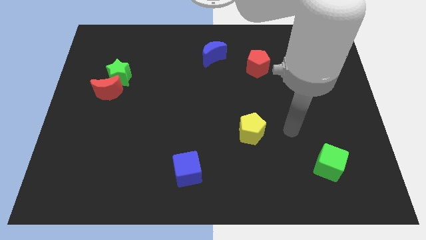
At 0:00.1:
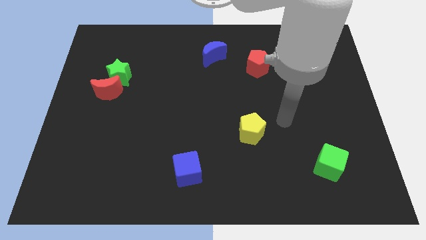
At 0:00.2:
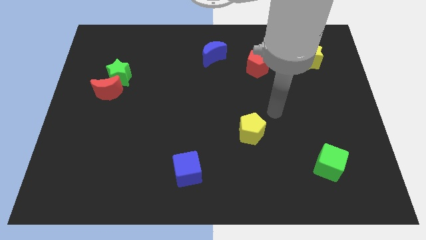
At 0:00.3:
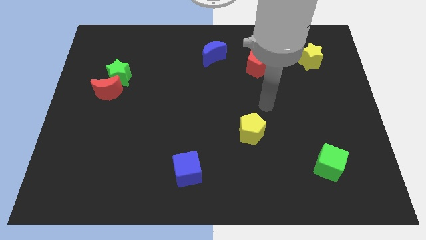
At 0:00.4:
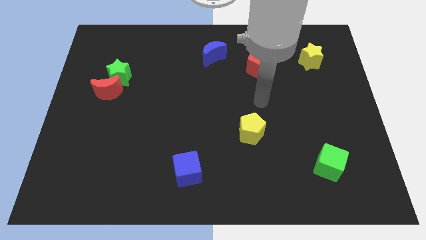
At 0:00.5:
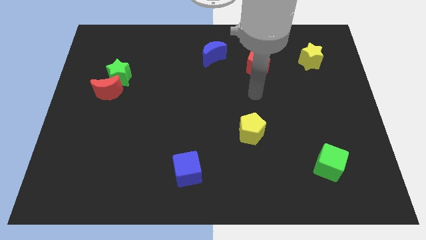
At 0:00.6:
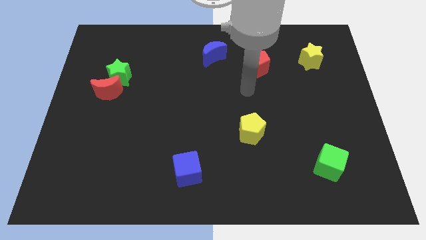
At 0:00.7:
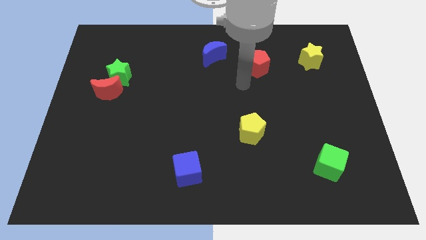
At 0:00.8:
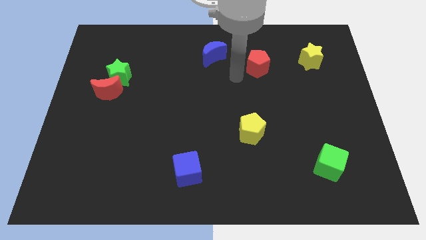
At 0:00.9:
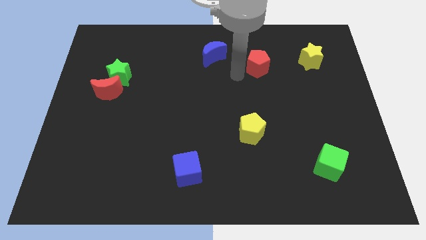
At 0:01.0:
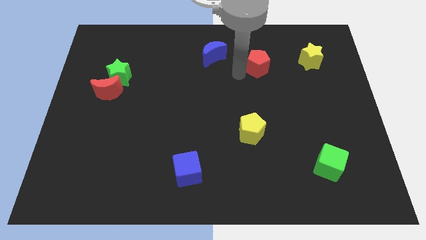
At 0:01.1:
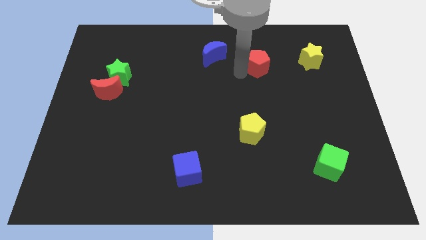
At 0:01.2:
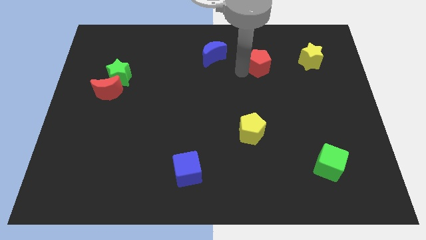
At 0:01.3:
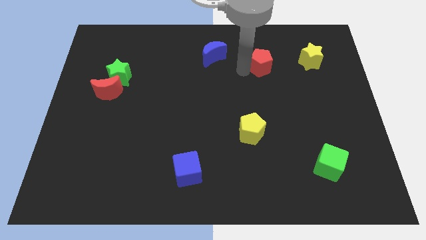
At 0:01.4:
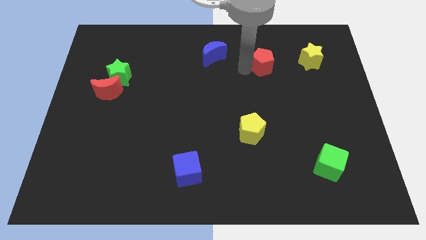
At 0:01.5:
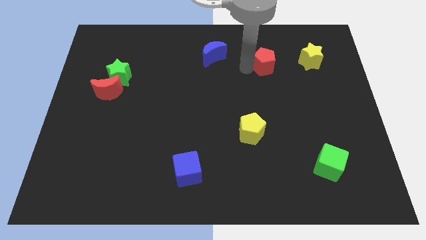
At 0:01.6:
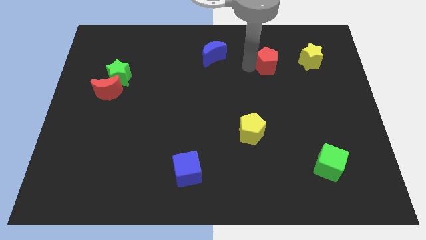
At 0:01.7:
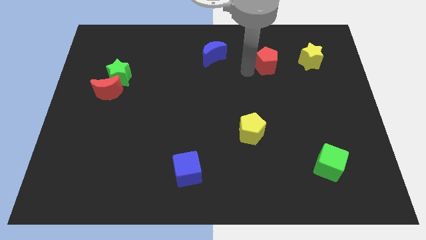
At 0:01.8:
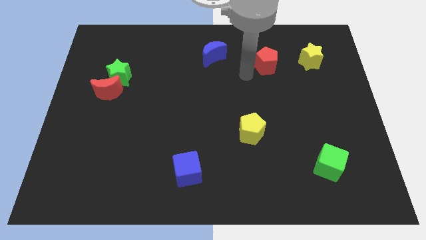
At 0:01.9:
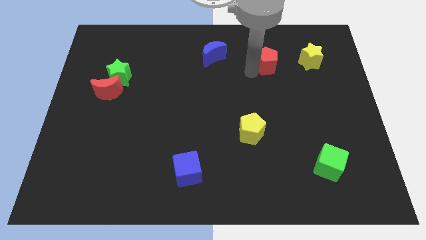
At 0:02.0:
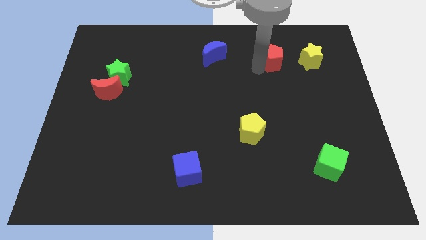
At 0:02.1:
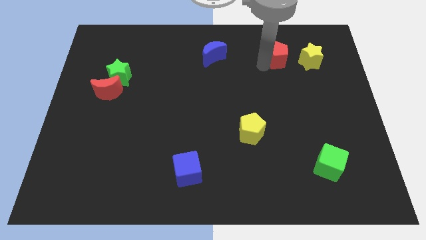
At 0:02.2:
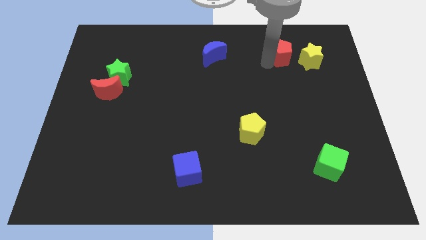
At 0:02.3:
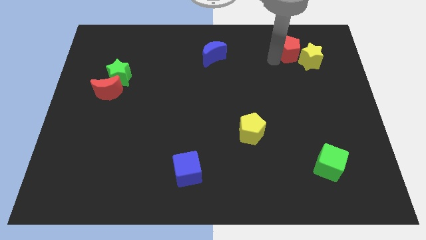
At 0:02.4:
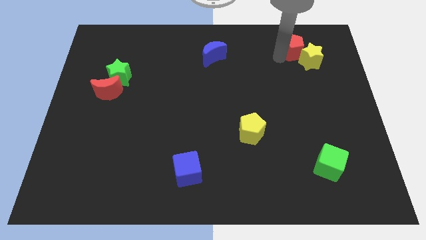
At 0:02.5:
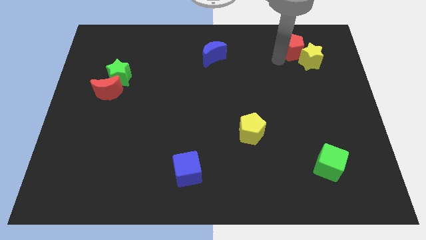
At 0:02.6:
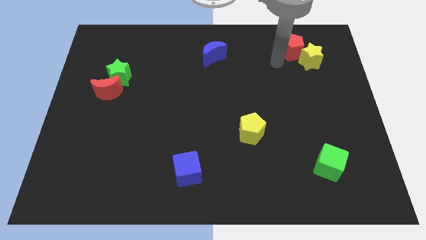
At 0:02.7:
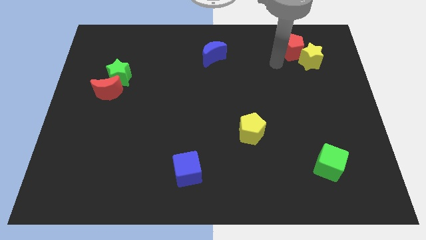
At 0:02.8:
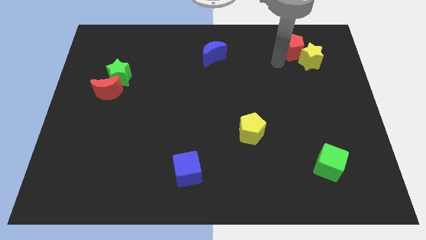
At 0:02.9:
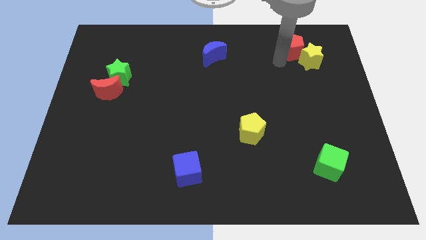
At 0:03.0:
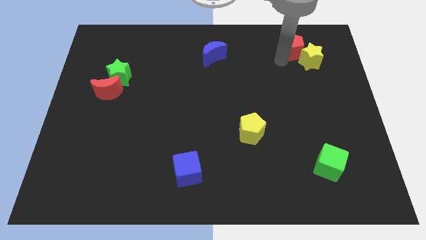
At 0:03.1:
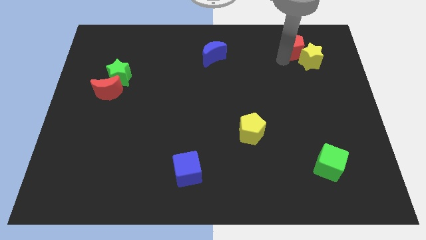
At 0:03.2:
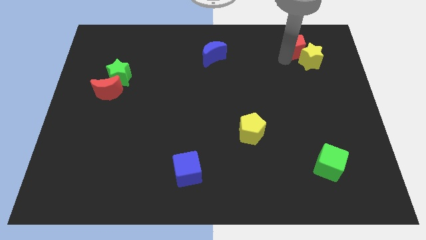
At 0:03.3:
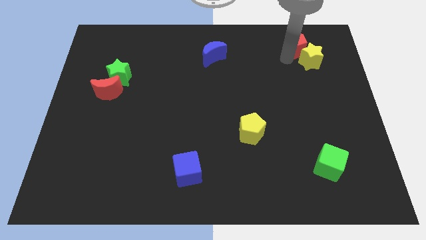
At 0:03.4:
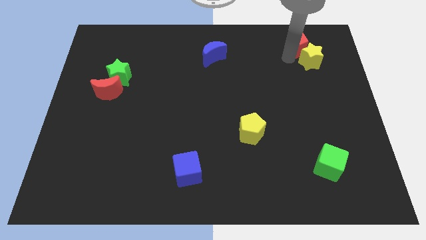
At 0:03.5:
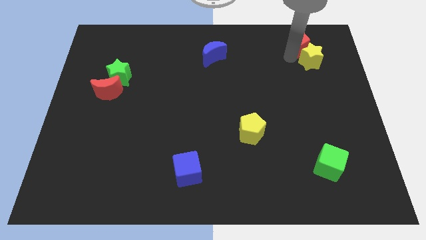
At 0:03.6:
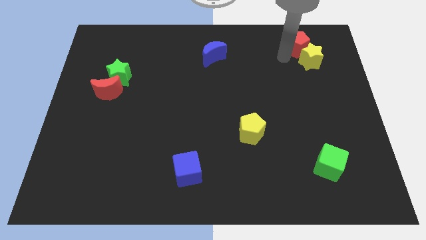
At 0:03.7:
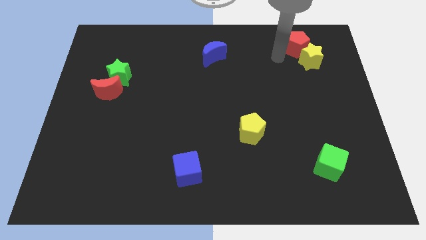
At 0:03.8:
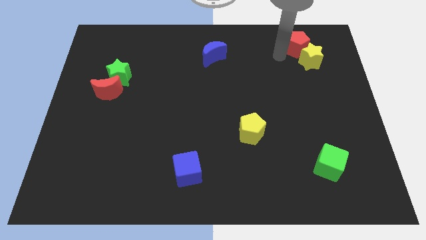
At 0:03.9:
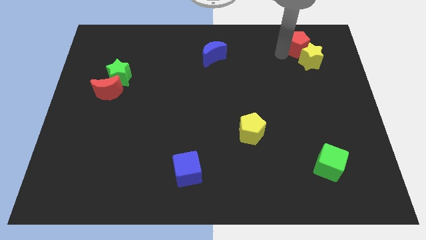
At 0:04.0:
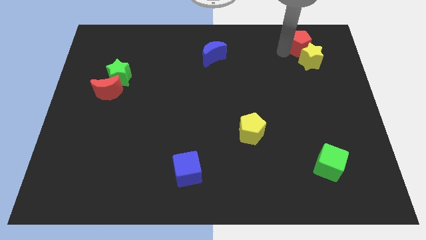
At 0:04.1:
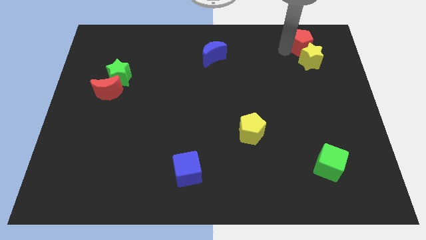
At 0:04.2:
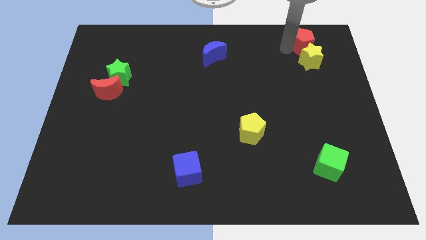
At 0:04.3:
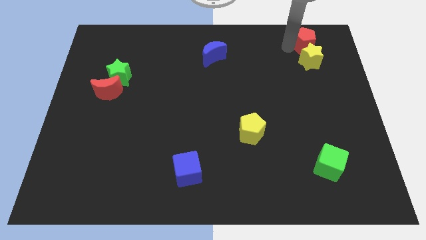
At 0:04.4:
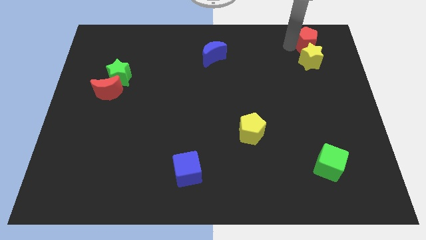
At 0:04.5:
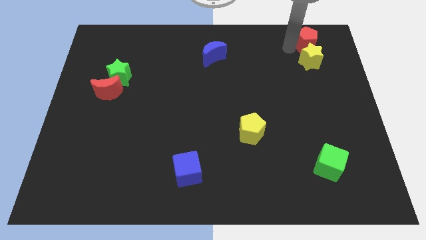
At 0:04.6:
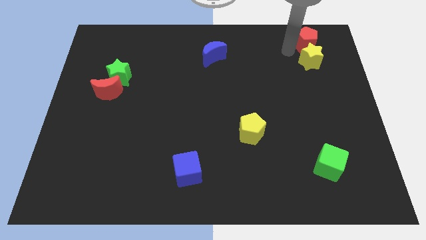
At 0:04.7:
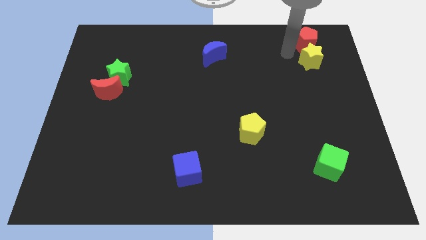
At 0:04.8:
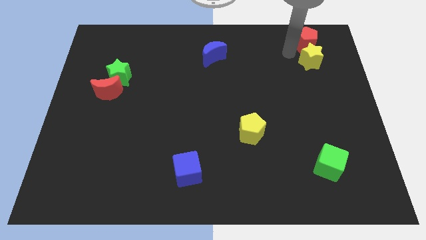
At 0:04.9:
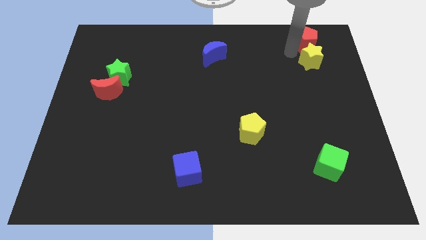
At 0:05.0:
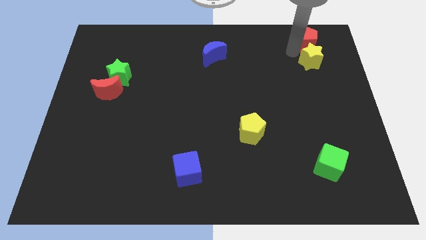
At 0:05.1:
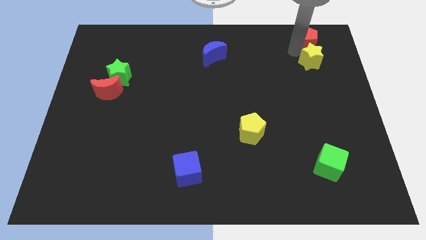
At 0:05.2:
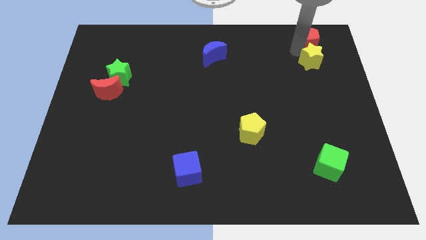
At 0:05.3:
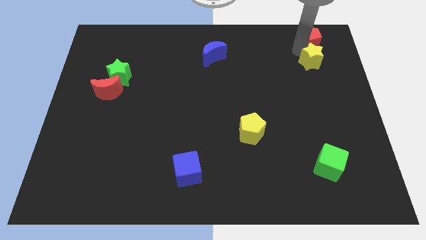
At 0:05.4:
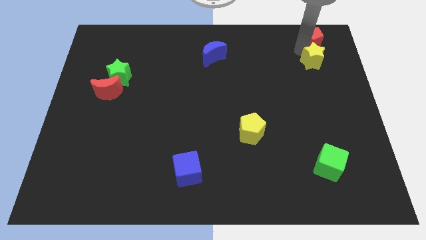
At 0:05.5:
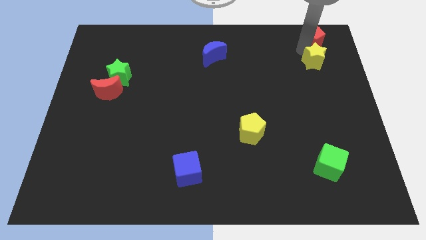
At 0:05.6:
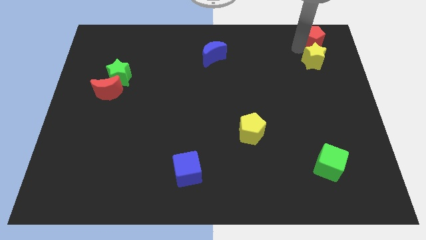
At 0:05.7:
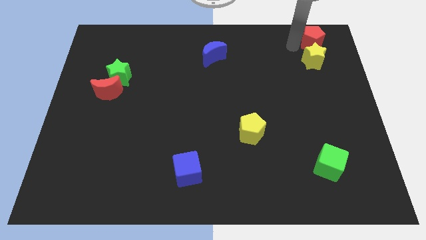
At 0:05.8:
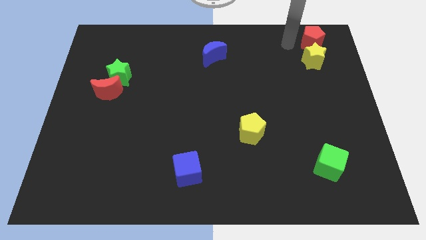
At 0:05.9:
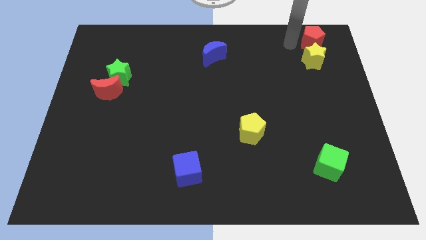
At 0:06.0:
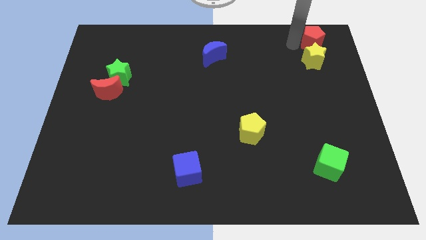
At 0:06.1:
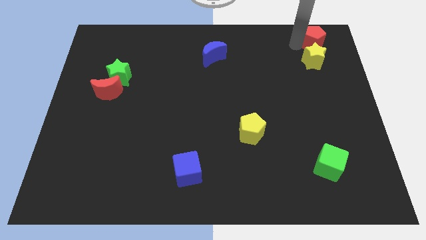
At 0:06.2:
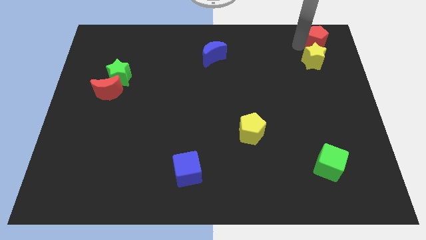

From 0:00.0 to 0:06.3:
push the red pentagon to the upper right corner

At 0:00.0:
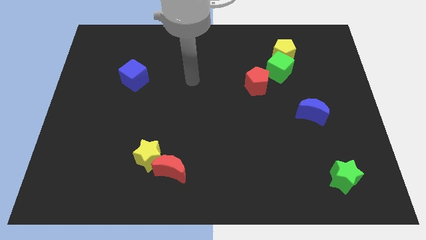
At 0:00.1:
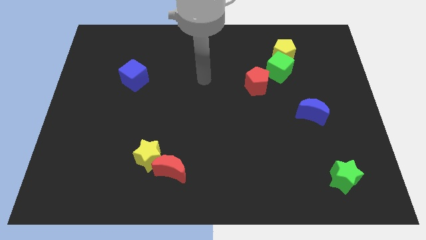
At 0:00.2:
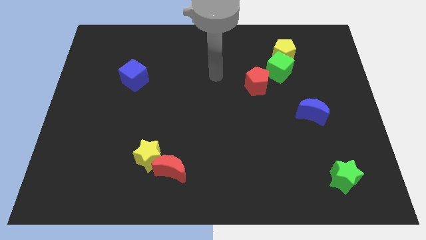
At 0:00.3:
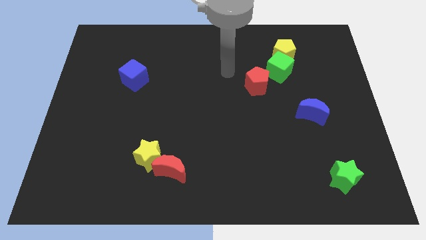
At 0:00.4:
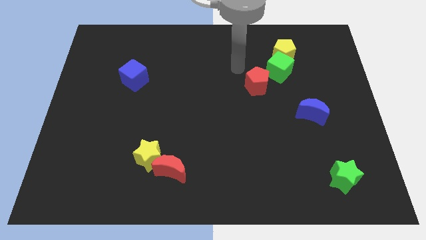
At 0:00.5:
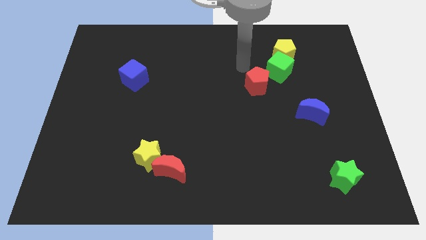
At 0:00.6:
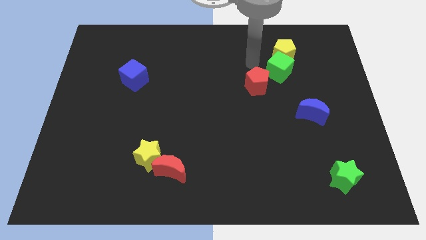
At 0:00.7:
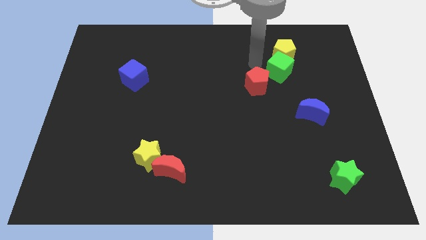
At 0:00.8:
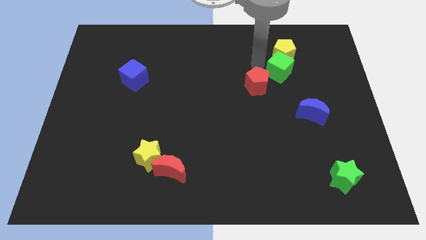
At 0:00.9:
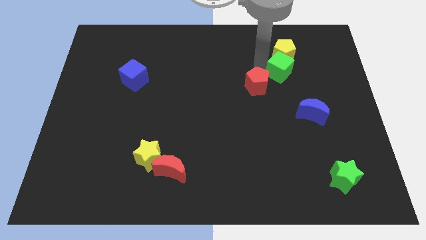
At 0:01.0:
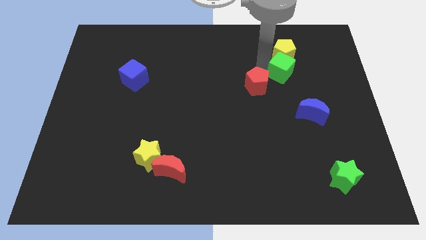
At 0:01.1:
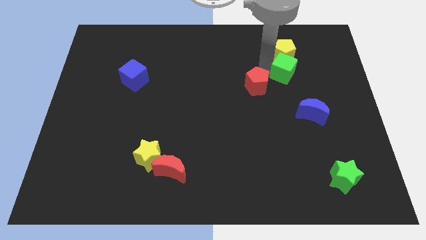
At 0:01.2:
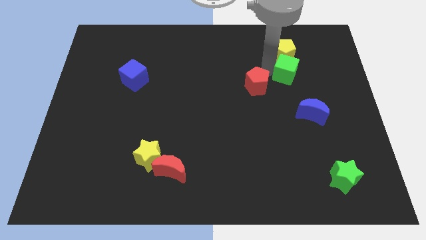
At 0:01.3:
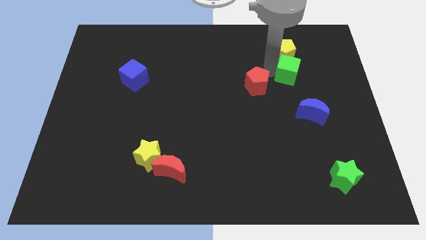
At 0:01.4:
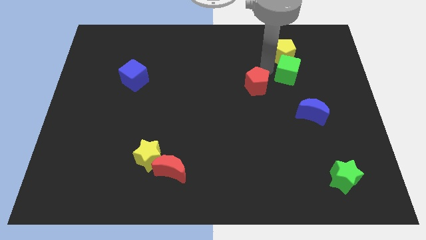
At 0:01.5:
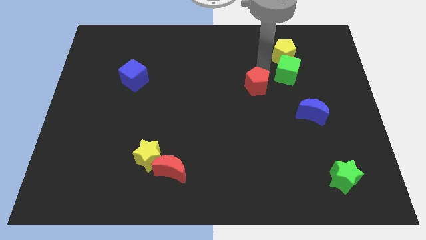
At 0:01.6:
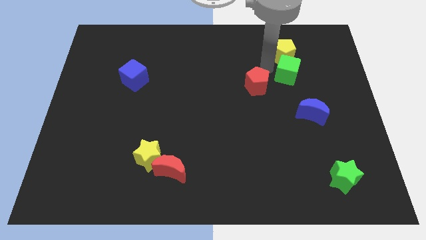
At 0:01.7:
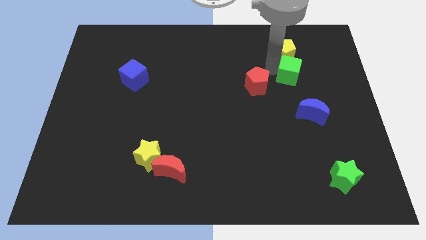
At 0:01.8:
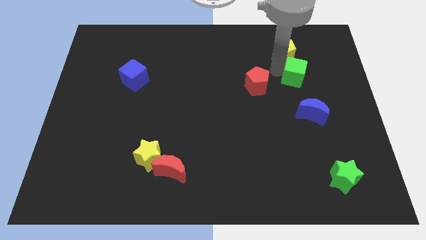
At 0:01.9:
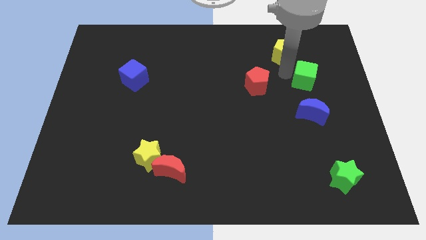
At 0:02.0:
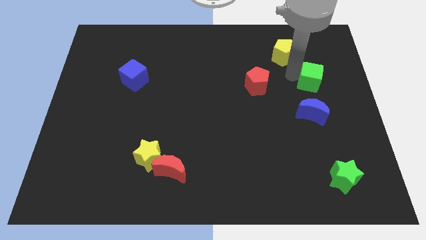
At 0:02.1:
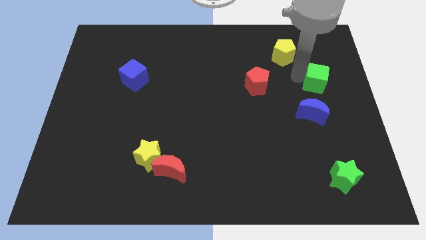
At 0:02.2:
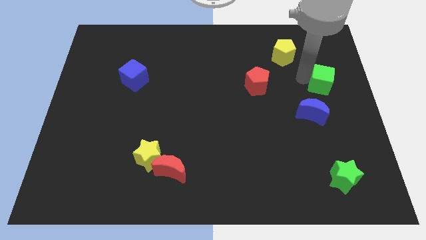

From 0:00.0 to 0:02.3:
put the green cube to the center right
